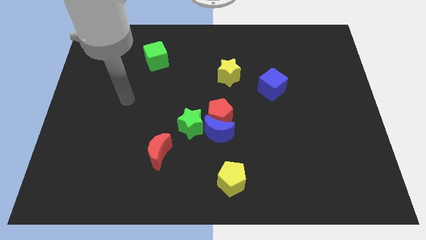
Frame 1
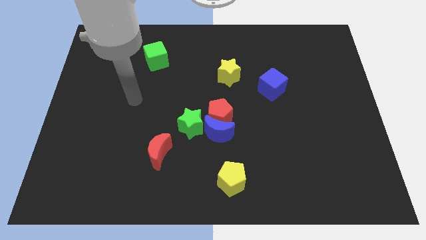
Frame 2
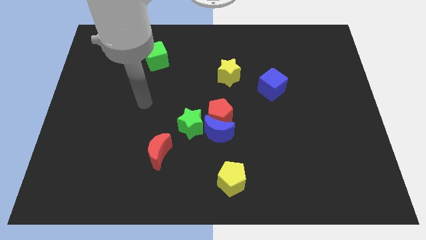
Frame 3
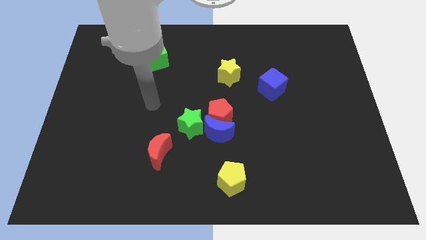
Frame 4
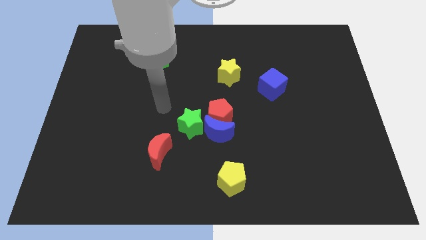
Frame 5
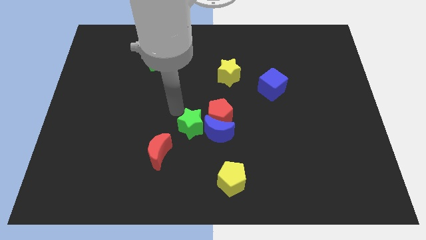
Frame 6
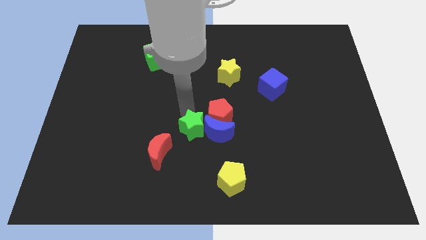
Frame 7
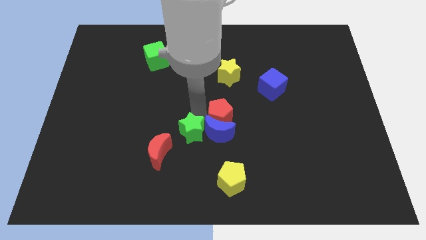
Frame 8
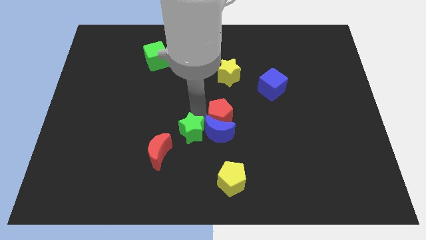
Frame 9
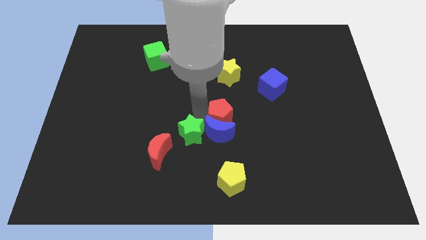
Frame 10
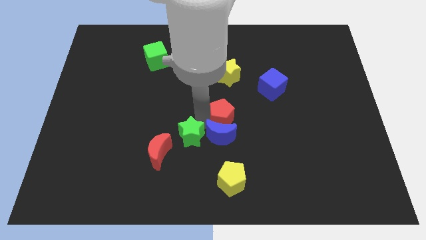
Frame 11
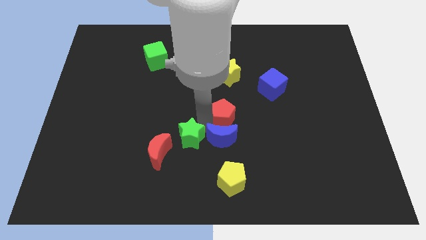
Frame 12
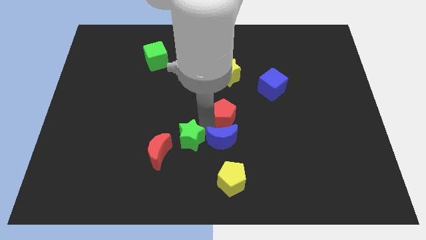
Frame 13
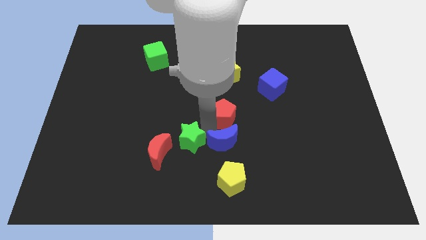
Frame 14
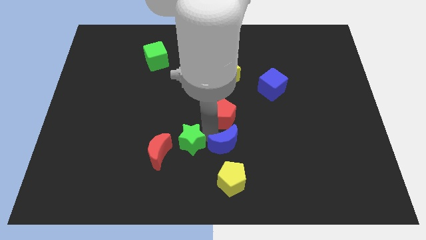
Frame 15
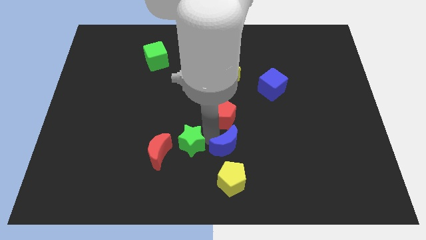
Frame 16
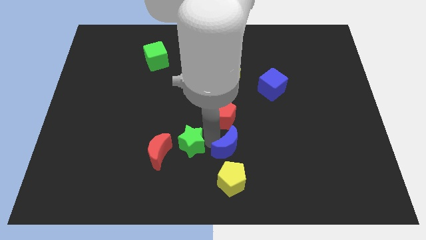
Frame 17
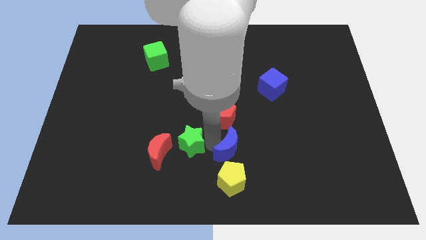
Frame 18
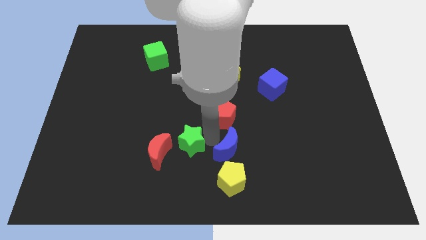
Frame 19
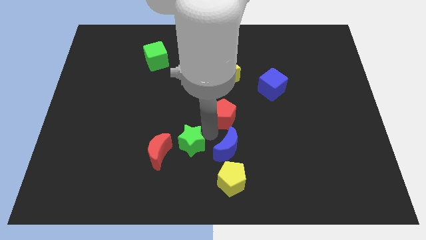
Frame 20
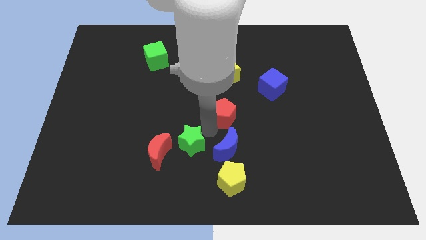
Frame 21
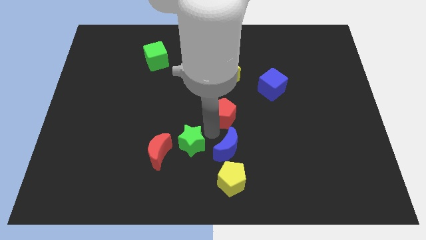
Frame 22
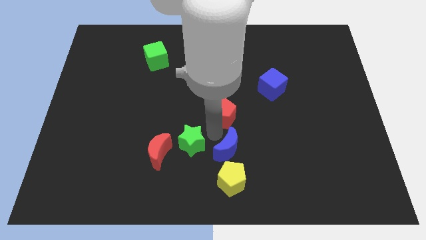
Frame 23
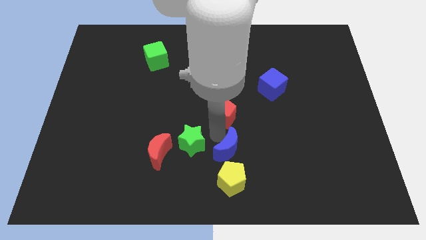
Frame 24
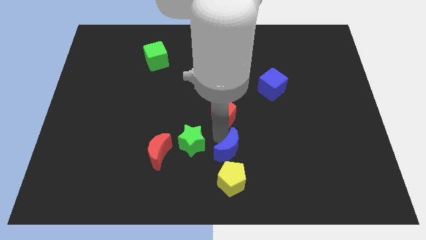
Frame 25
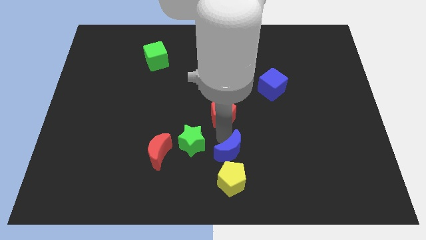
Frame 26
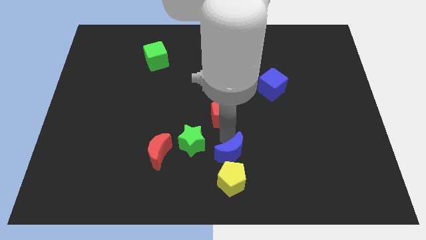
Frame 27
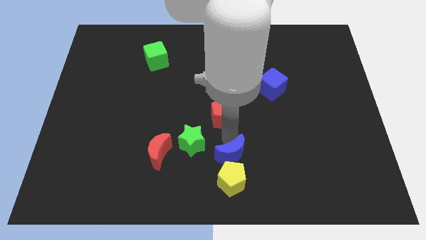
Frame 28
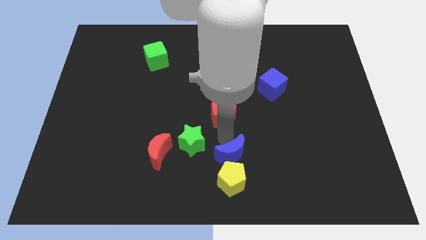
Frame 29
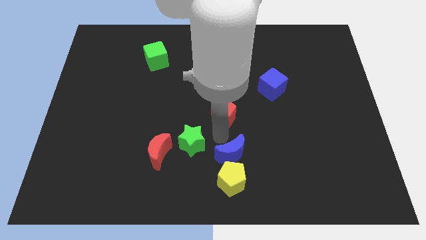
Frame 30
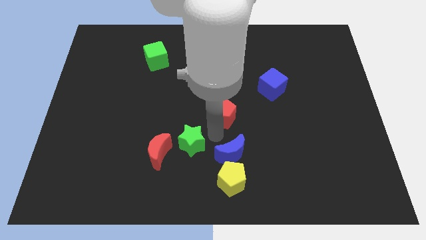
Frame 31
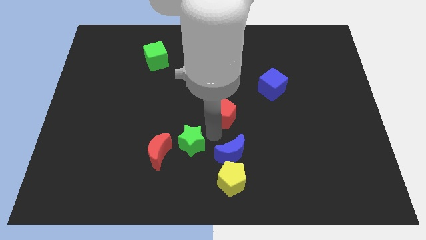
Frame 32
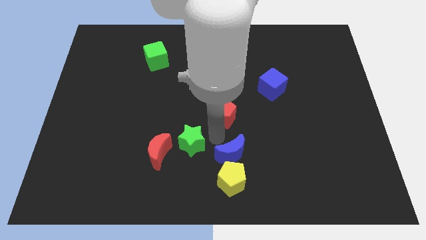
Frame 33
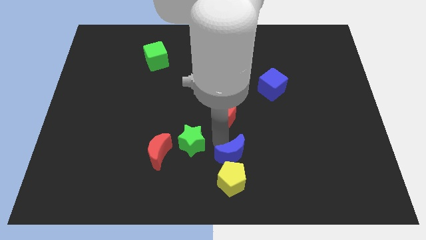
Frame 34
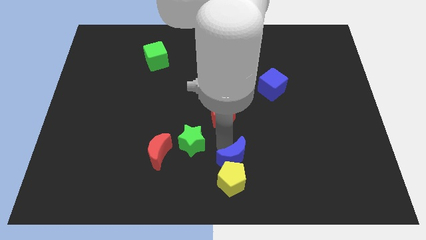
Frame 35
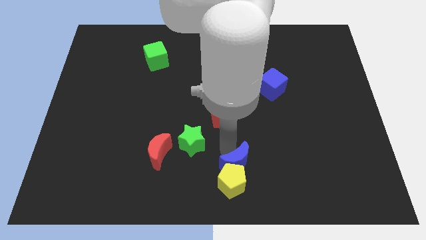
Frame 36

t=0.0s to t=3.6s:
move the blue moon away from the red pentagon and green star

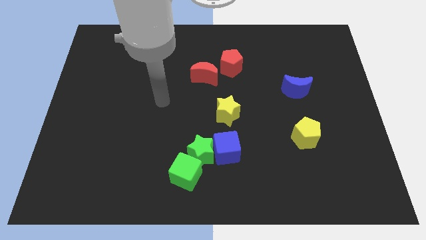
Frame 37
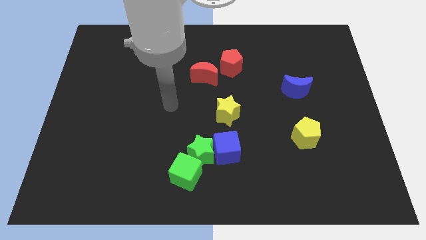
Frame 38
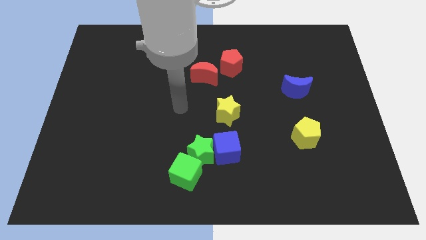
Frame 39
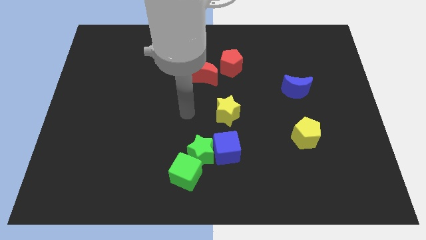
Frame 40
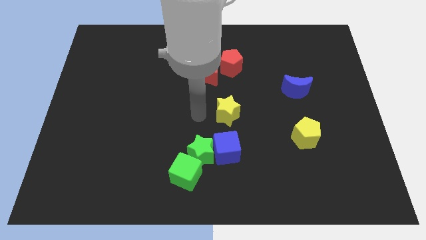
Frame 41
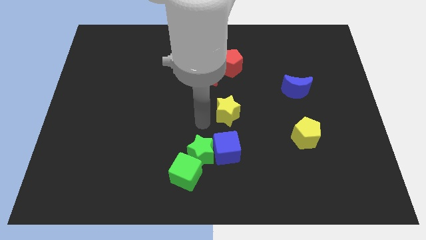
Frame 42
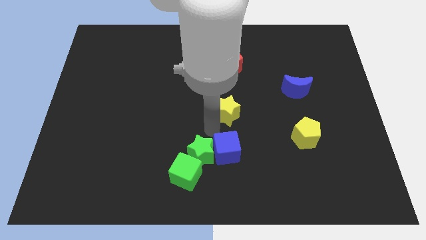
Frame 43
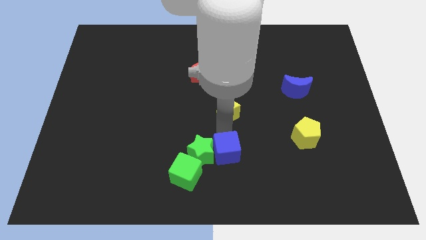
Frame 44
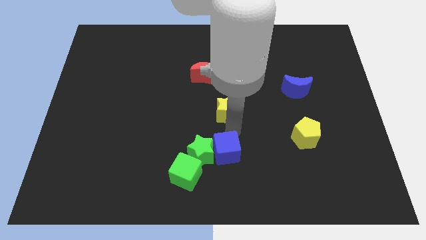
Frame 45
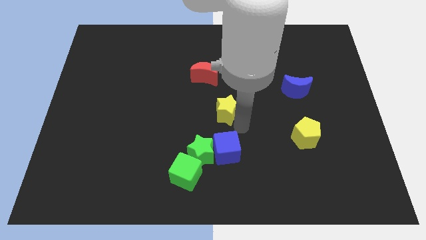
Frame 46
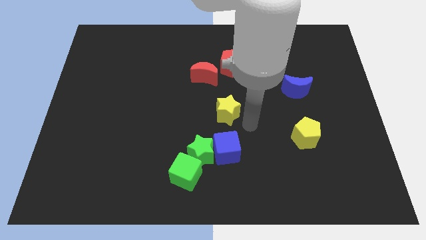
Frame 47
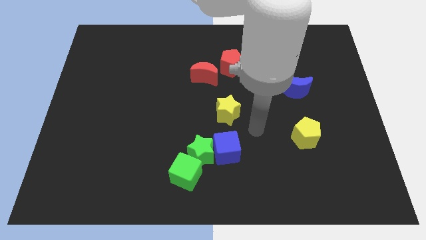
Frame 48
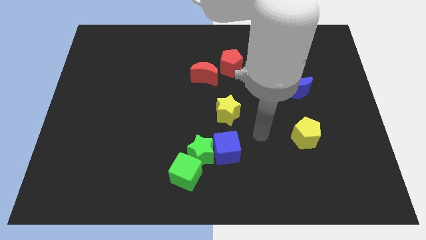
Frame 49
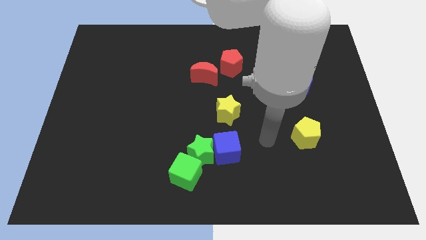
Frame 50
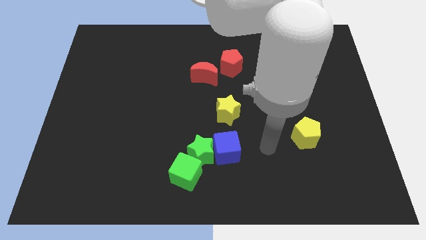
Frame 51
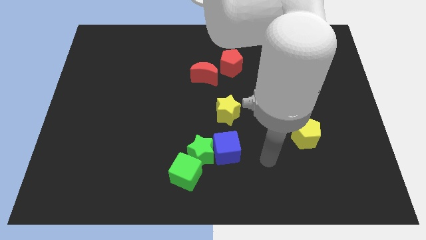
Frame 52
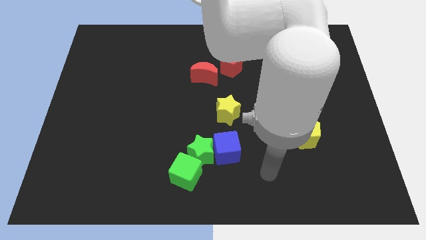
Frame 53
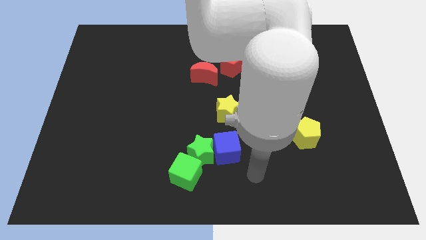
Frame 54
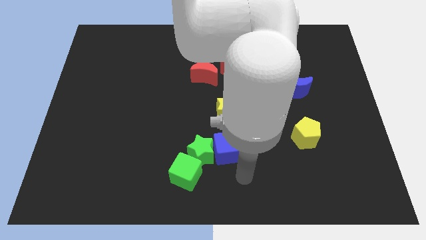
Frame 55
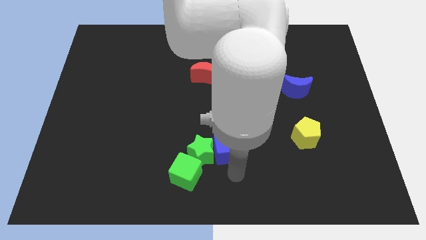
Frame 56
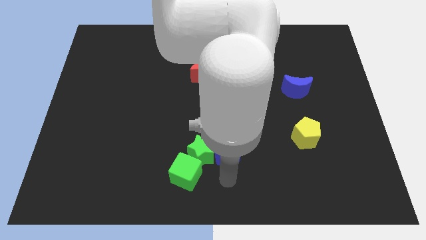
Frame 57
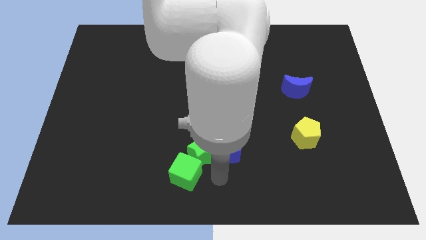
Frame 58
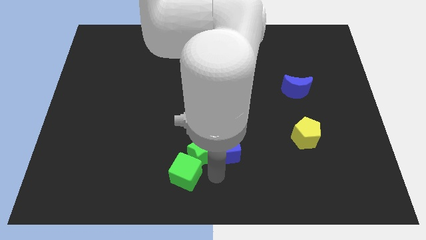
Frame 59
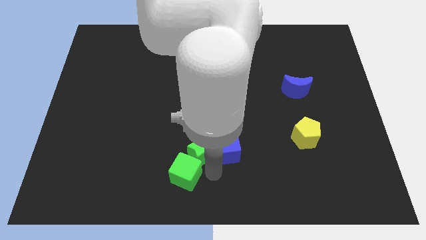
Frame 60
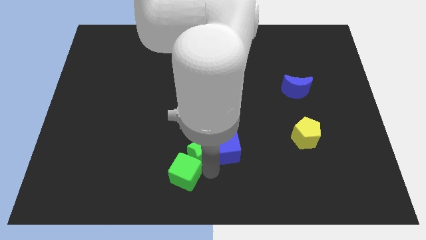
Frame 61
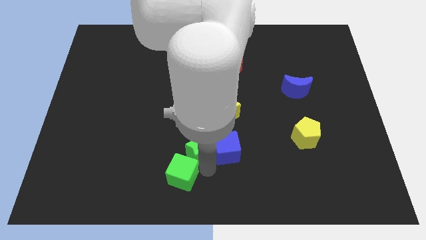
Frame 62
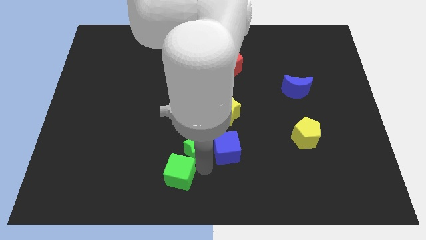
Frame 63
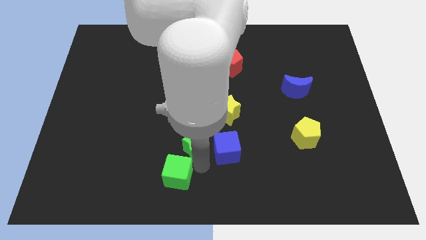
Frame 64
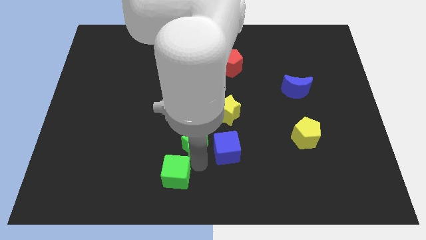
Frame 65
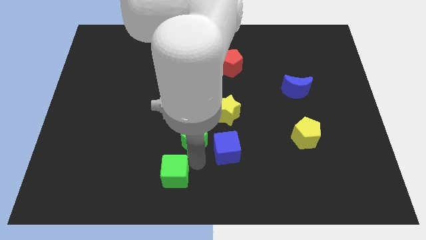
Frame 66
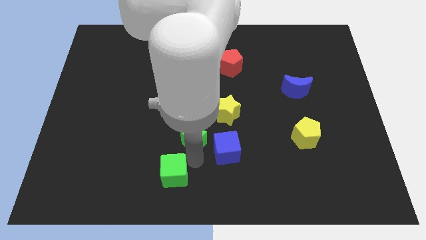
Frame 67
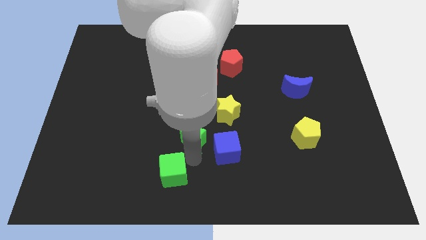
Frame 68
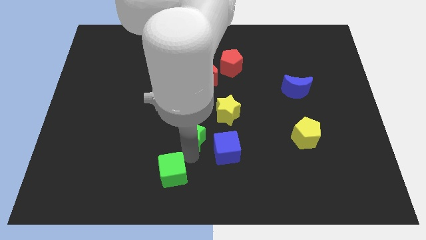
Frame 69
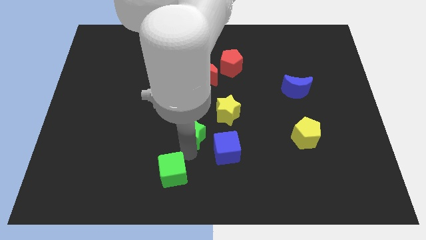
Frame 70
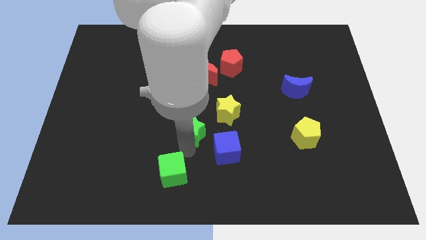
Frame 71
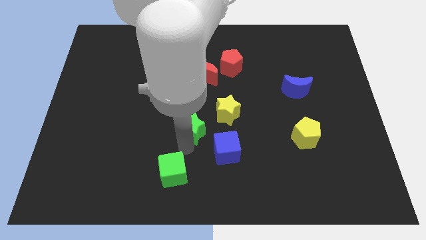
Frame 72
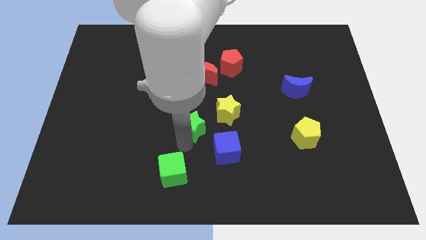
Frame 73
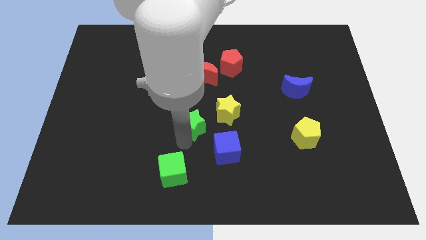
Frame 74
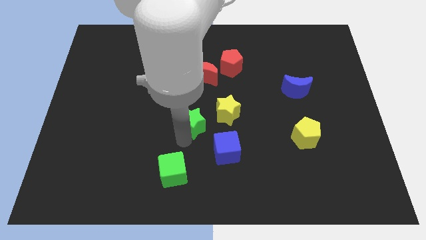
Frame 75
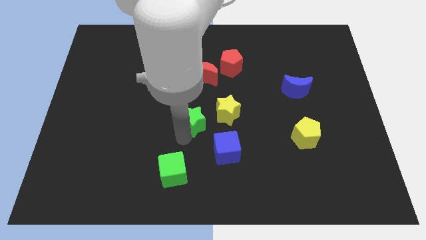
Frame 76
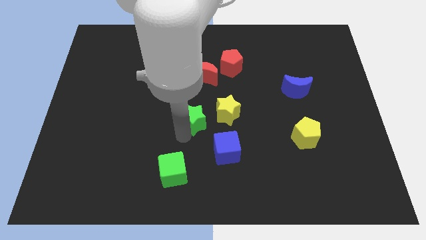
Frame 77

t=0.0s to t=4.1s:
separate the green star from the blue cube and green cube

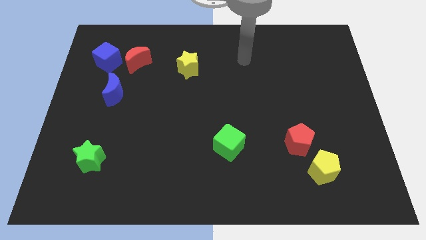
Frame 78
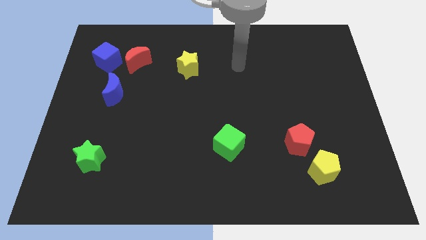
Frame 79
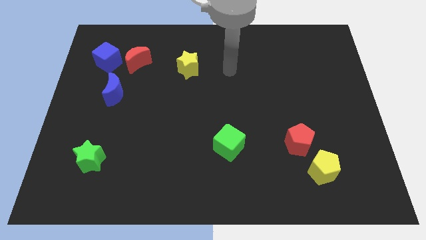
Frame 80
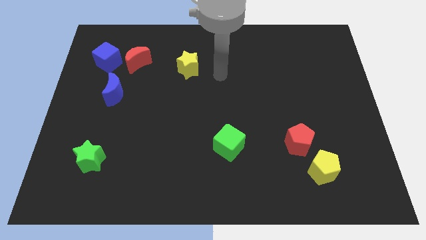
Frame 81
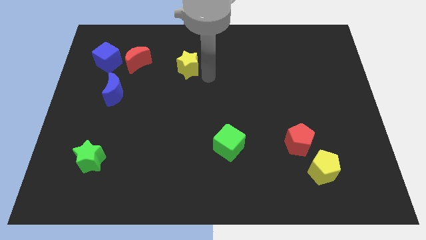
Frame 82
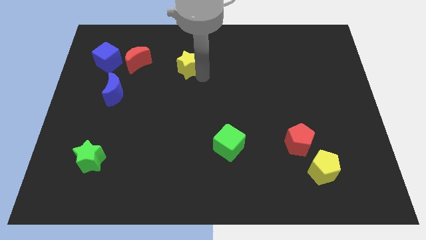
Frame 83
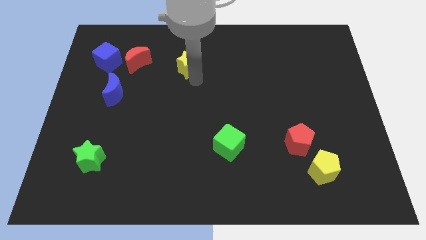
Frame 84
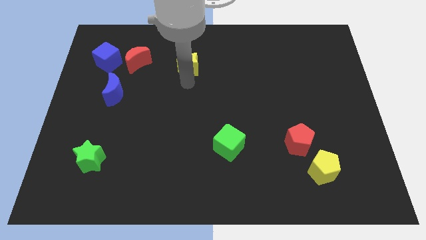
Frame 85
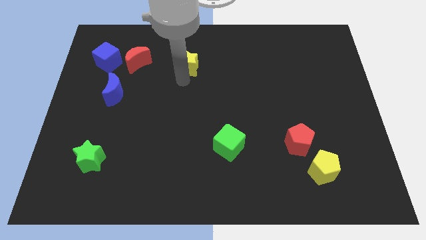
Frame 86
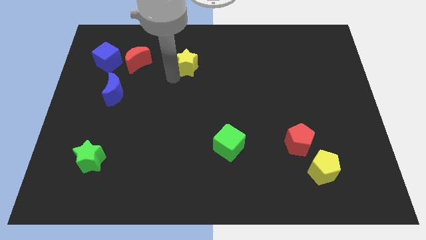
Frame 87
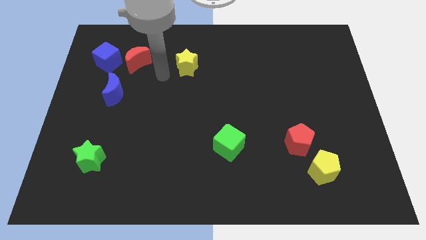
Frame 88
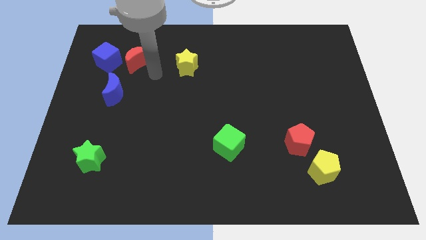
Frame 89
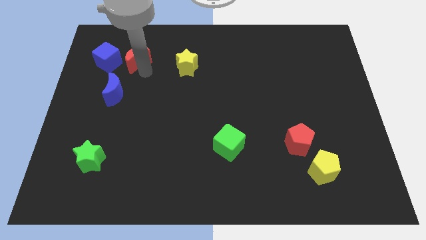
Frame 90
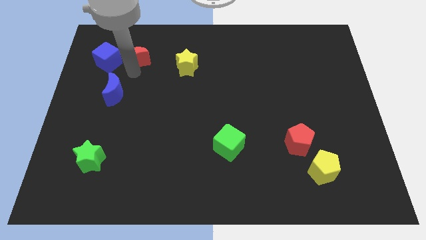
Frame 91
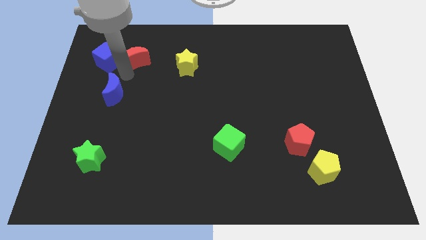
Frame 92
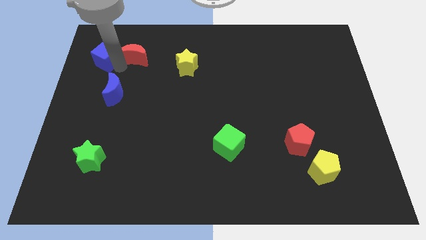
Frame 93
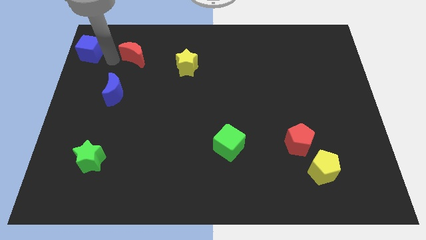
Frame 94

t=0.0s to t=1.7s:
pull the red moon apart from the blue cube

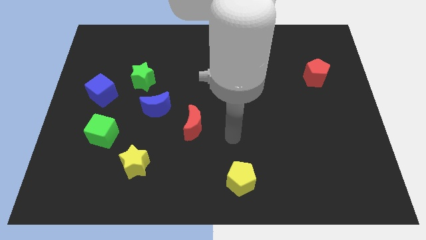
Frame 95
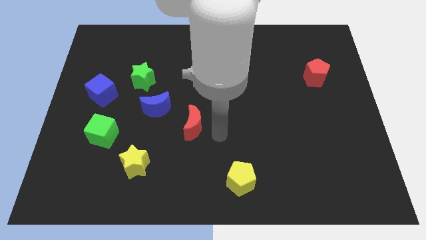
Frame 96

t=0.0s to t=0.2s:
pull the green star apart from the blue moon
